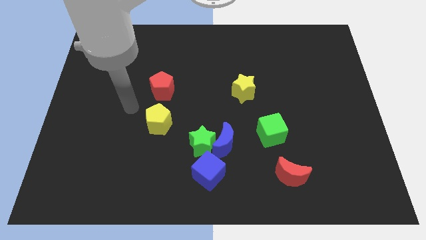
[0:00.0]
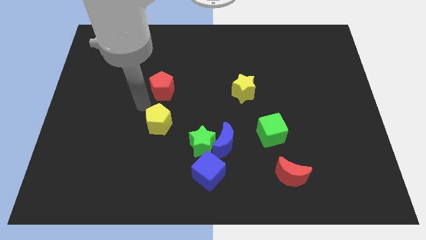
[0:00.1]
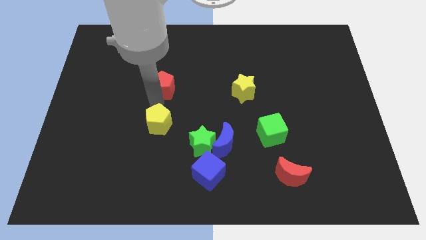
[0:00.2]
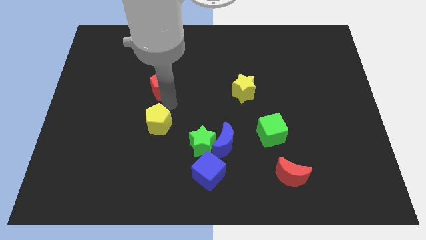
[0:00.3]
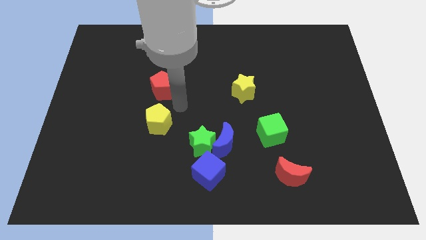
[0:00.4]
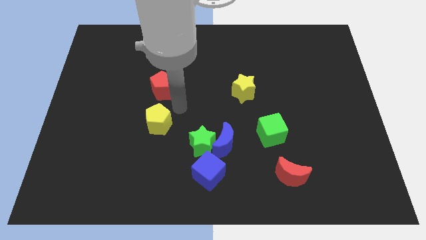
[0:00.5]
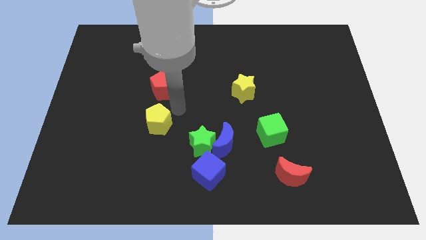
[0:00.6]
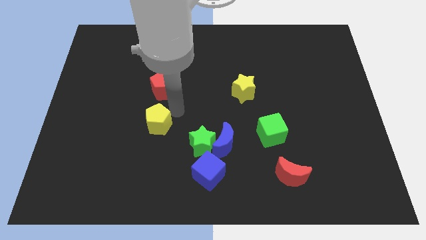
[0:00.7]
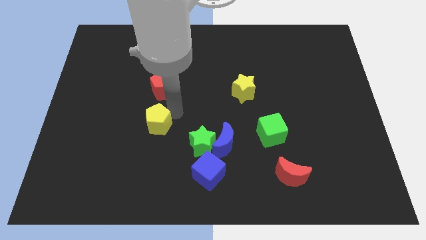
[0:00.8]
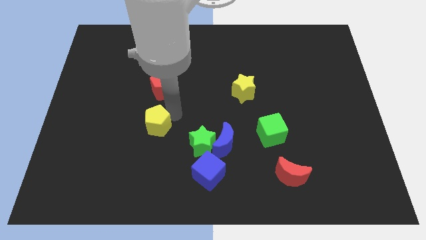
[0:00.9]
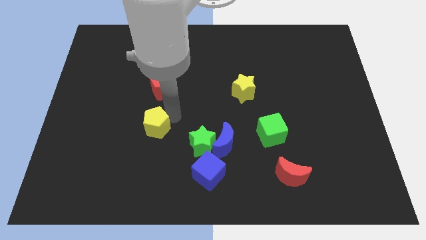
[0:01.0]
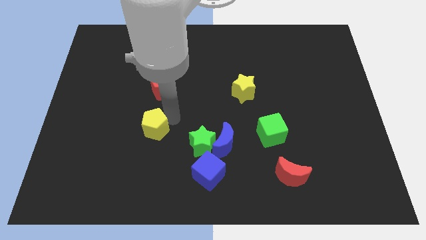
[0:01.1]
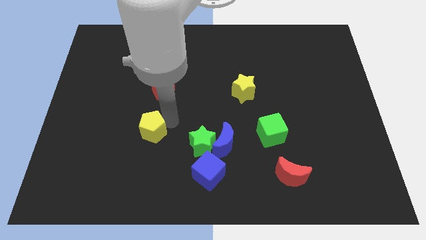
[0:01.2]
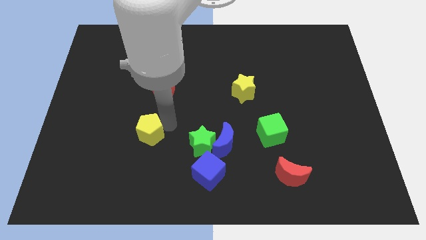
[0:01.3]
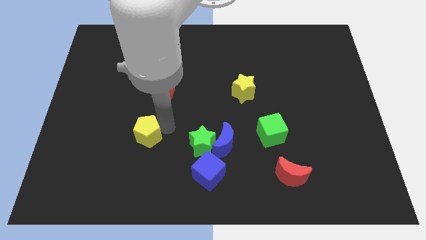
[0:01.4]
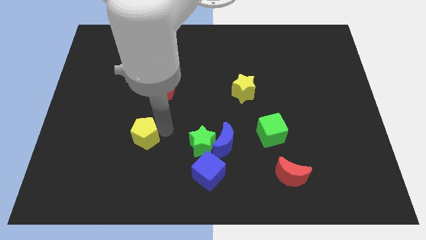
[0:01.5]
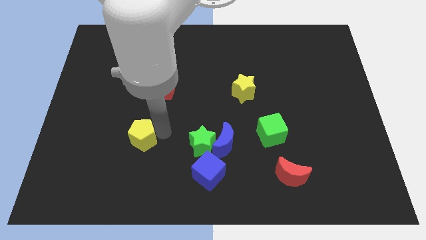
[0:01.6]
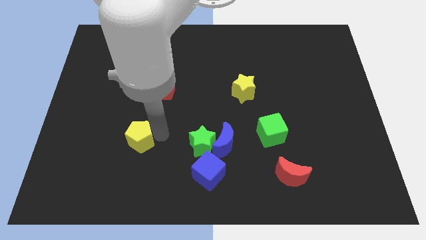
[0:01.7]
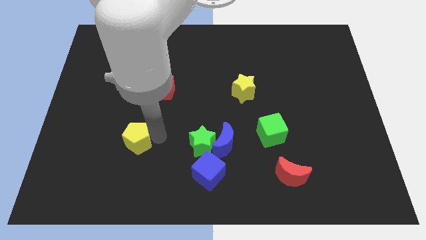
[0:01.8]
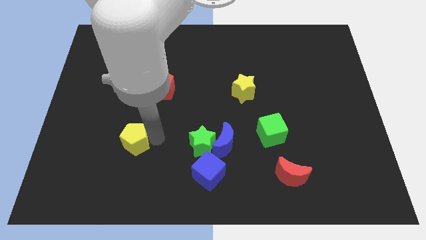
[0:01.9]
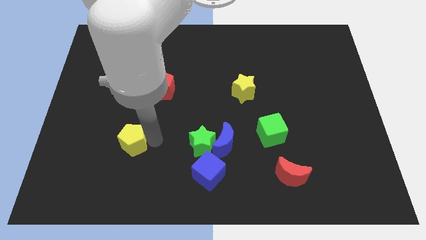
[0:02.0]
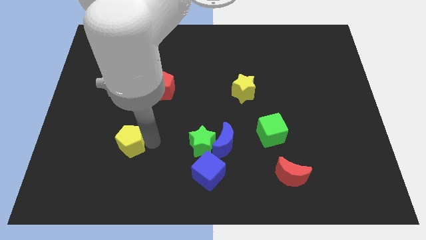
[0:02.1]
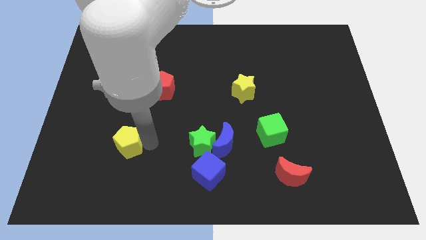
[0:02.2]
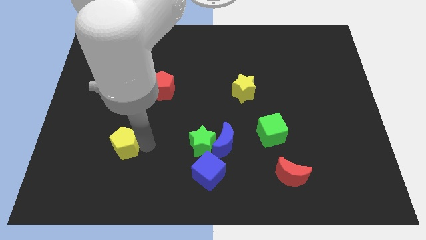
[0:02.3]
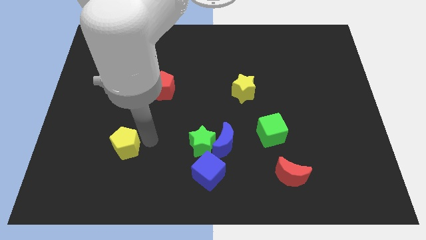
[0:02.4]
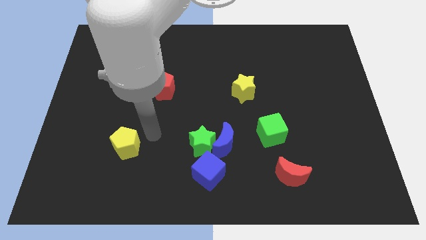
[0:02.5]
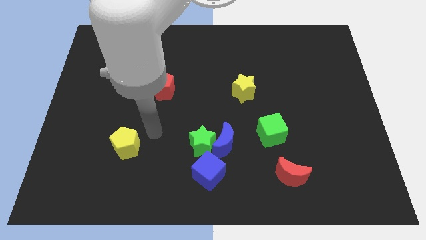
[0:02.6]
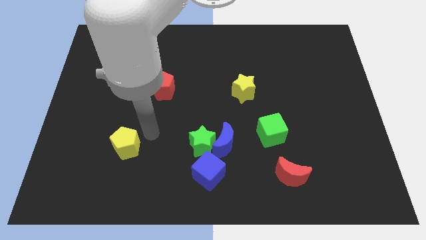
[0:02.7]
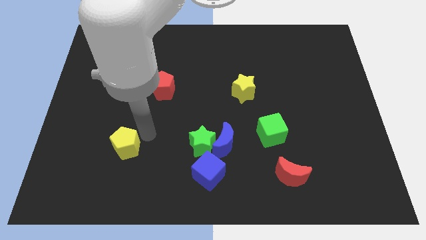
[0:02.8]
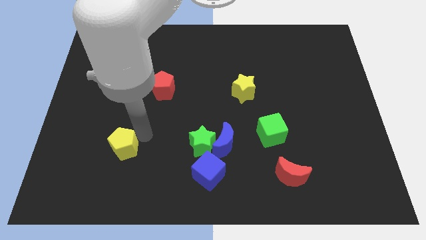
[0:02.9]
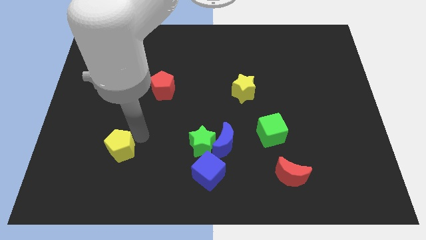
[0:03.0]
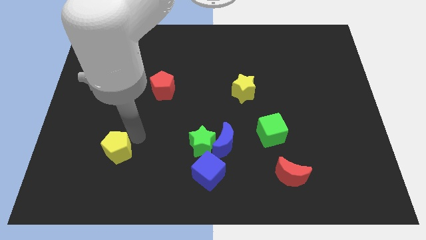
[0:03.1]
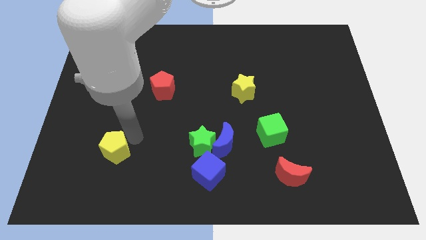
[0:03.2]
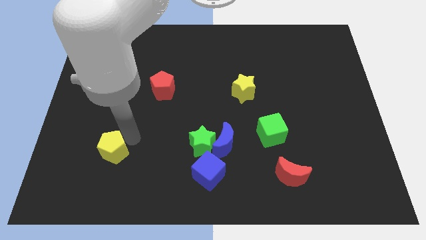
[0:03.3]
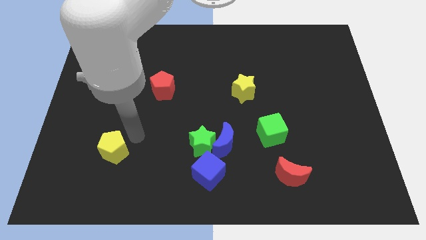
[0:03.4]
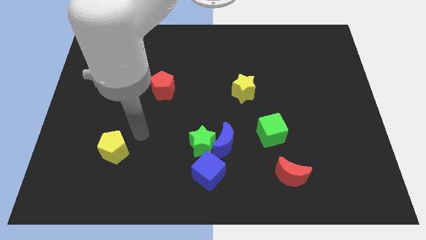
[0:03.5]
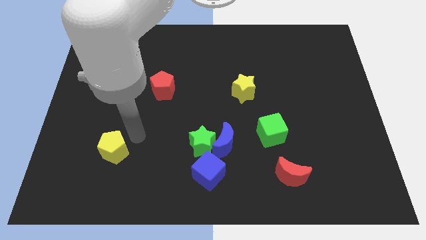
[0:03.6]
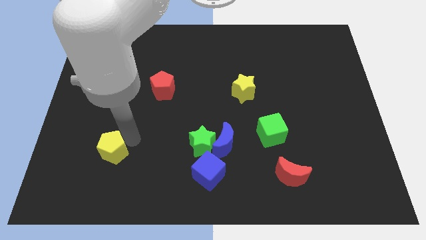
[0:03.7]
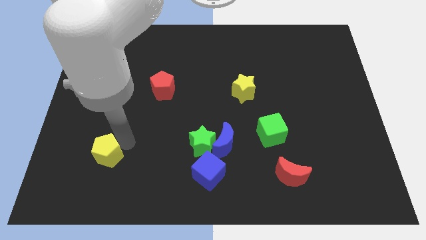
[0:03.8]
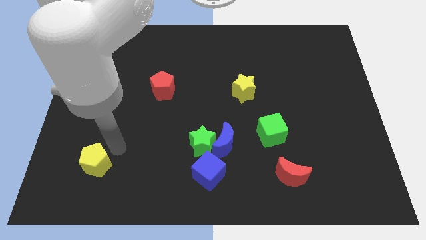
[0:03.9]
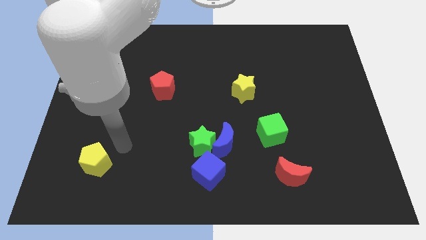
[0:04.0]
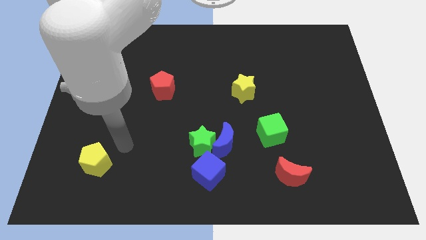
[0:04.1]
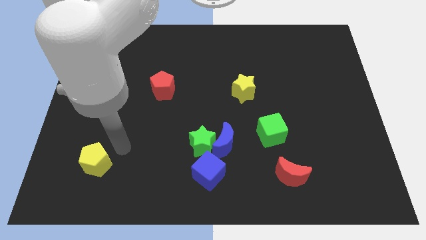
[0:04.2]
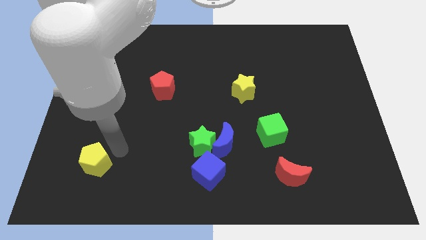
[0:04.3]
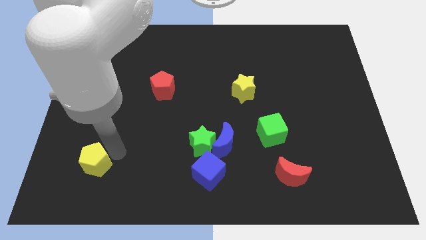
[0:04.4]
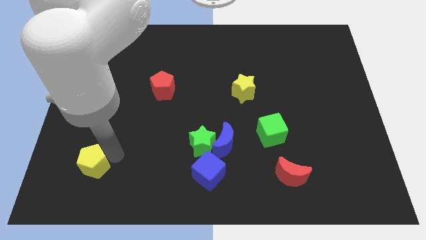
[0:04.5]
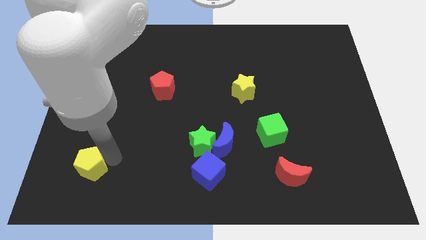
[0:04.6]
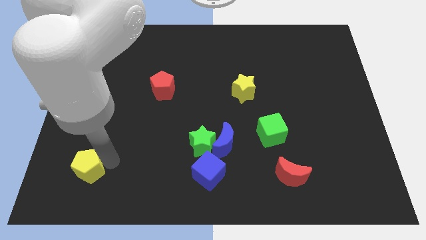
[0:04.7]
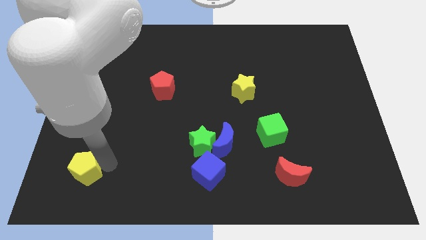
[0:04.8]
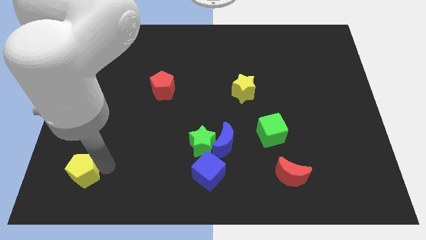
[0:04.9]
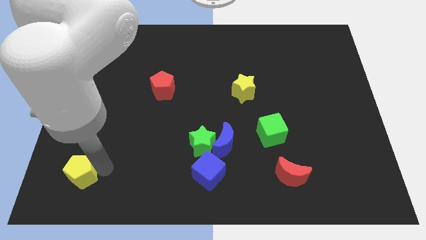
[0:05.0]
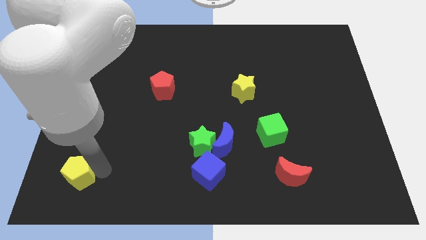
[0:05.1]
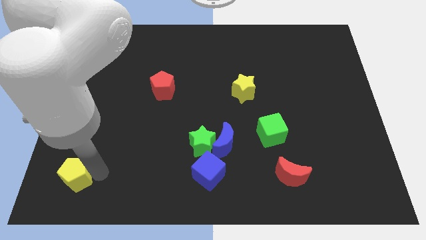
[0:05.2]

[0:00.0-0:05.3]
move the yellow pentagon to the bottom left of the board

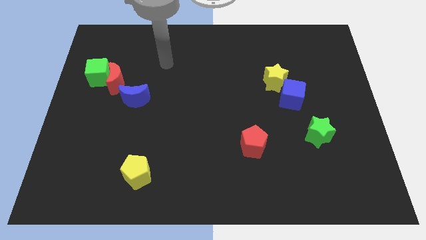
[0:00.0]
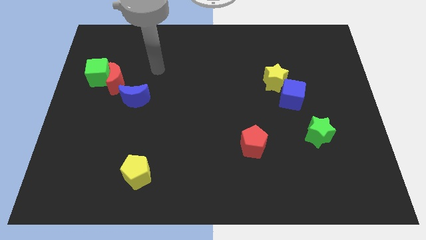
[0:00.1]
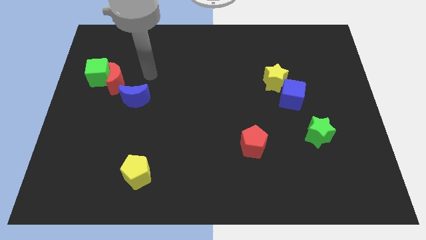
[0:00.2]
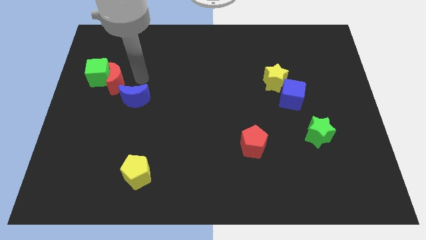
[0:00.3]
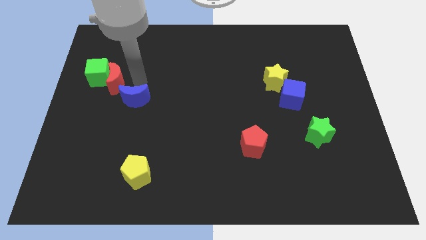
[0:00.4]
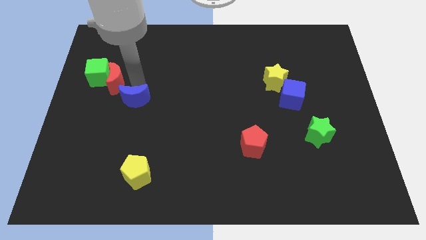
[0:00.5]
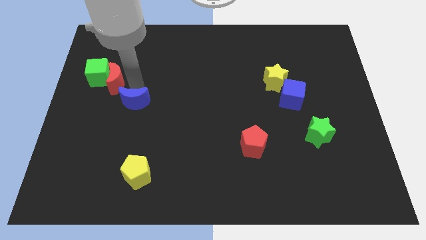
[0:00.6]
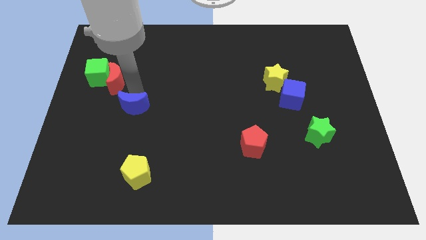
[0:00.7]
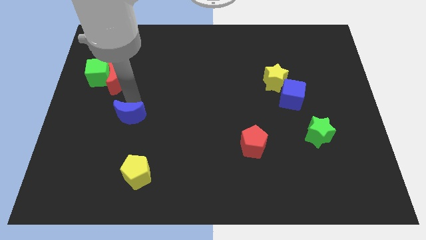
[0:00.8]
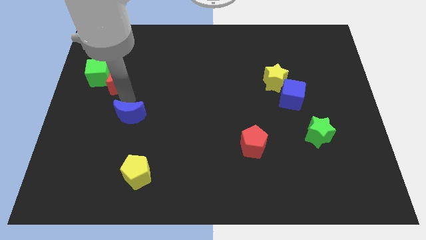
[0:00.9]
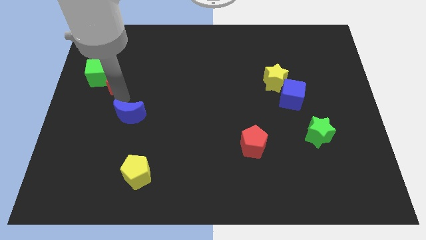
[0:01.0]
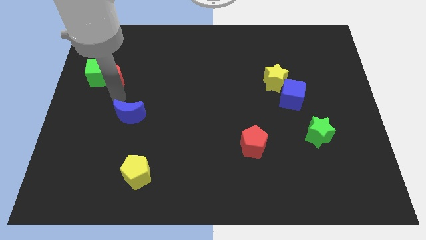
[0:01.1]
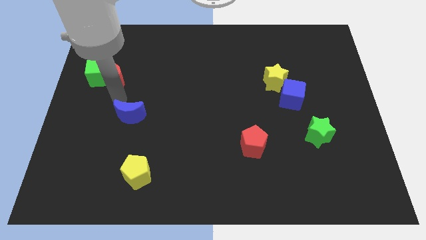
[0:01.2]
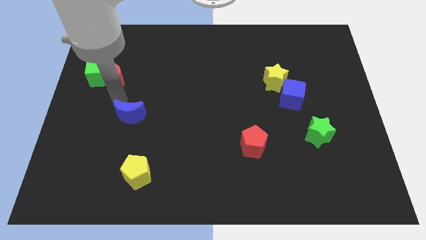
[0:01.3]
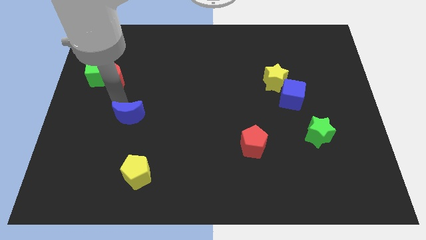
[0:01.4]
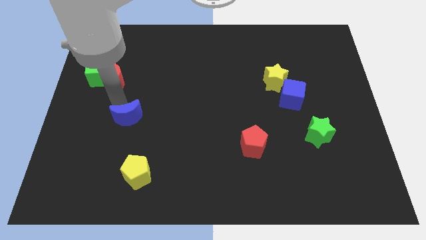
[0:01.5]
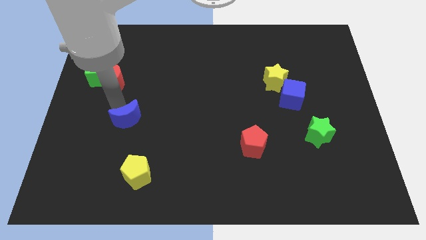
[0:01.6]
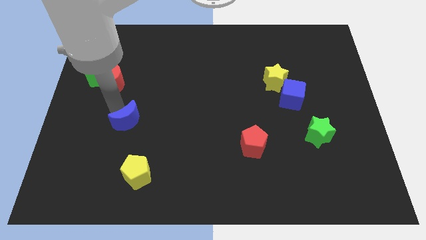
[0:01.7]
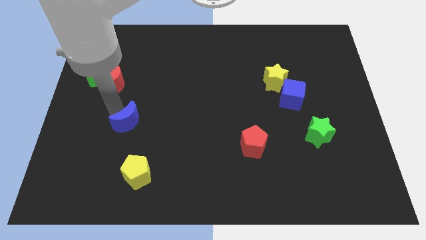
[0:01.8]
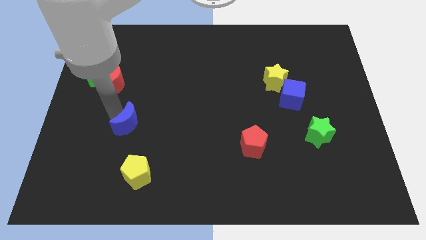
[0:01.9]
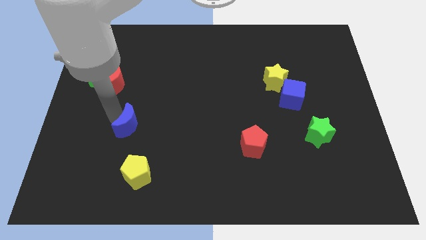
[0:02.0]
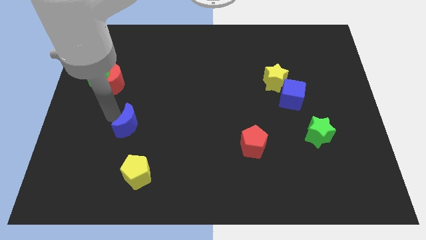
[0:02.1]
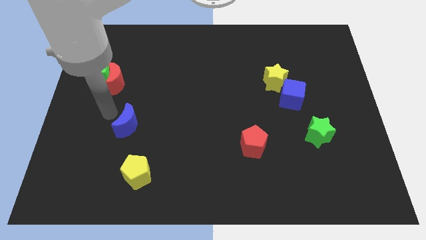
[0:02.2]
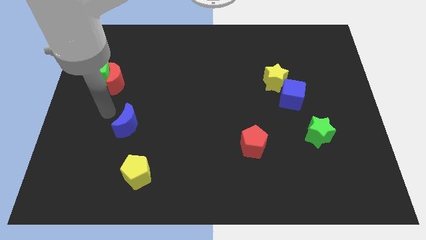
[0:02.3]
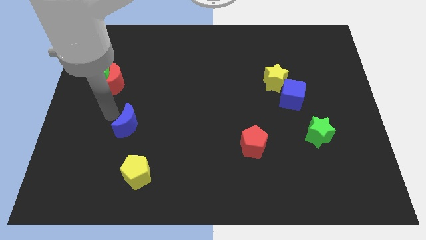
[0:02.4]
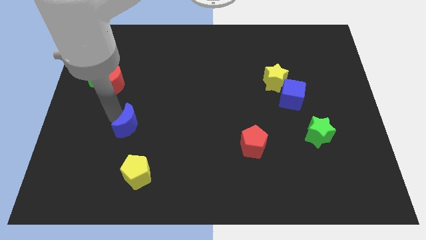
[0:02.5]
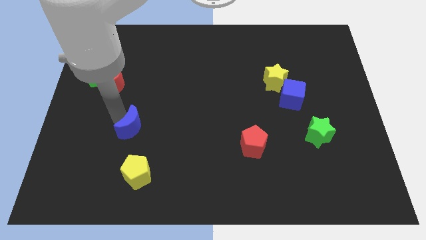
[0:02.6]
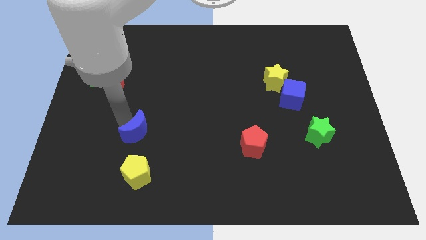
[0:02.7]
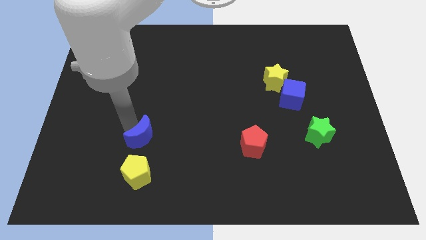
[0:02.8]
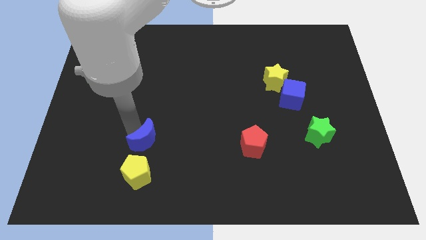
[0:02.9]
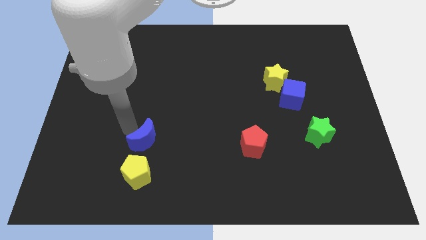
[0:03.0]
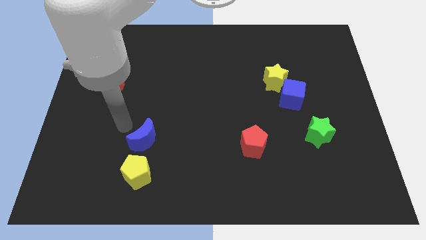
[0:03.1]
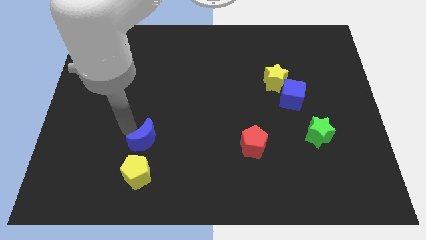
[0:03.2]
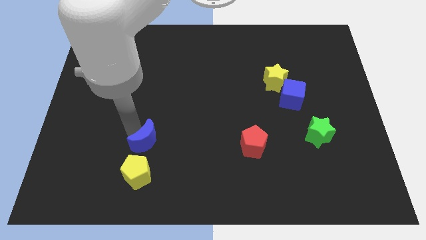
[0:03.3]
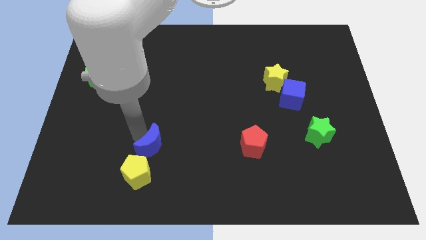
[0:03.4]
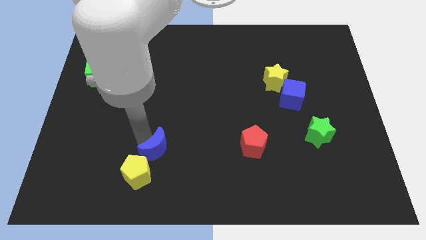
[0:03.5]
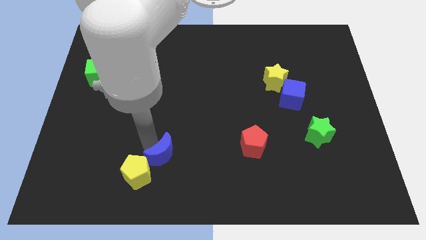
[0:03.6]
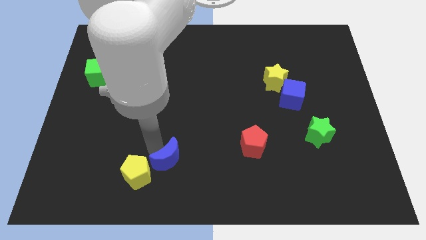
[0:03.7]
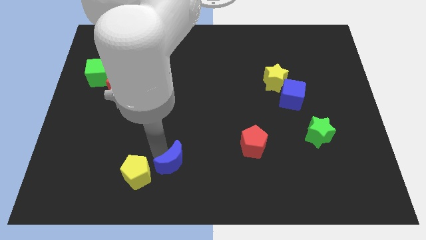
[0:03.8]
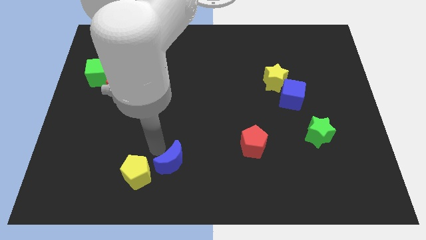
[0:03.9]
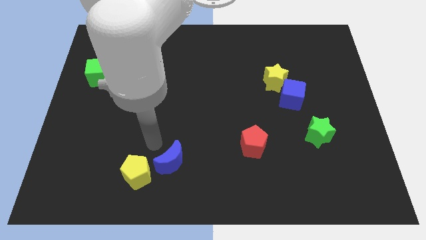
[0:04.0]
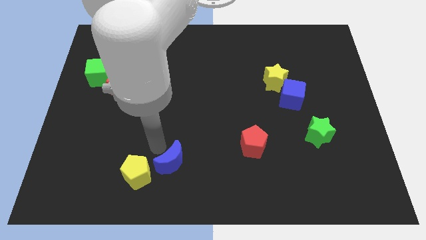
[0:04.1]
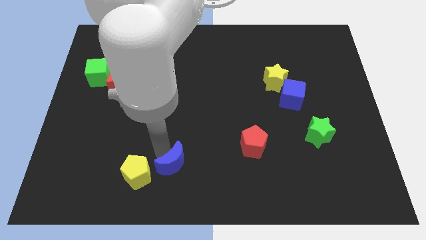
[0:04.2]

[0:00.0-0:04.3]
push the blue moon to the bottom side
